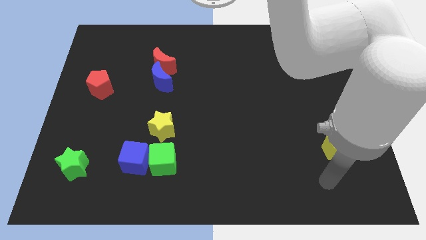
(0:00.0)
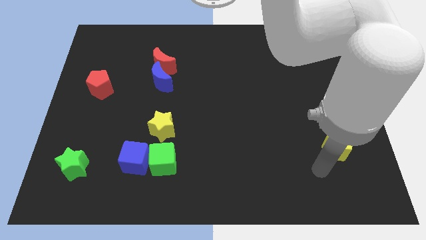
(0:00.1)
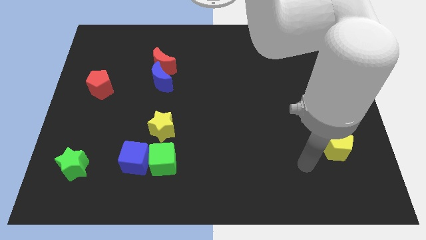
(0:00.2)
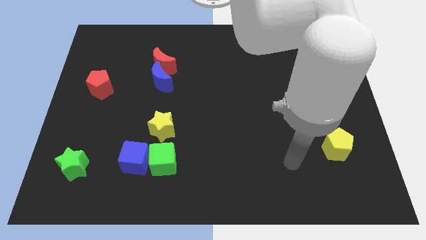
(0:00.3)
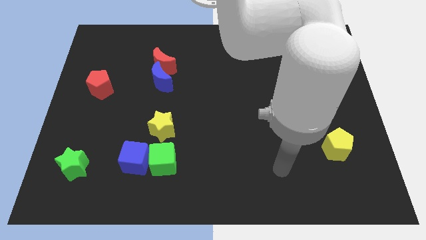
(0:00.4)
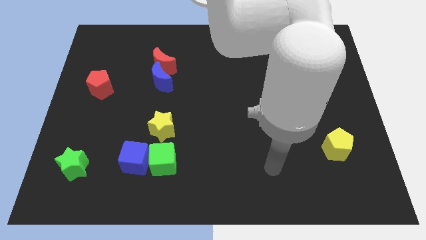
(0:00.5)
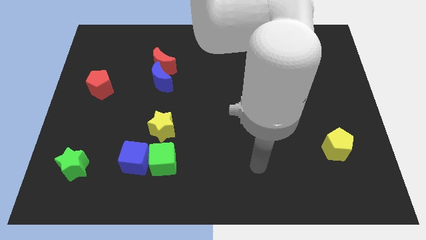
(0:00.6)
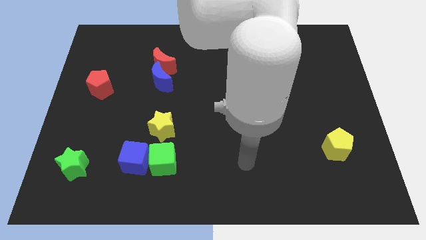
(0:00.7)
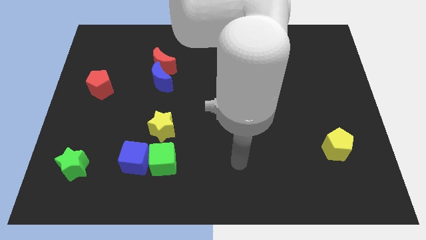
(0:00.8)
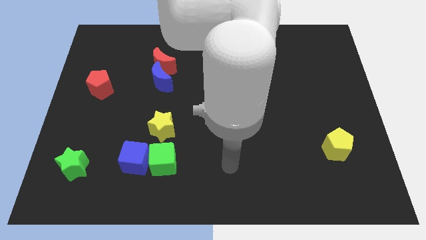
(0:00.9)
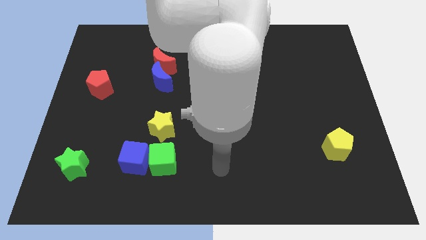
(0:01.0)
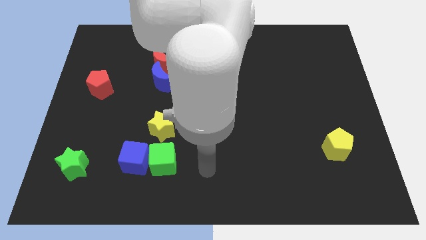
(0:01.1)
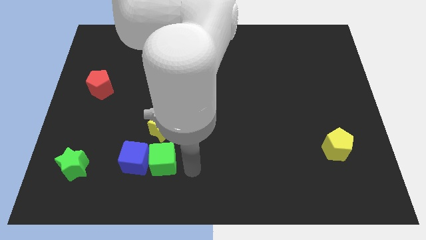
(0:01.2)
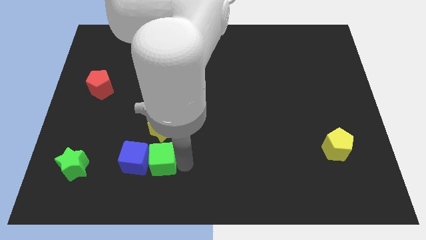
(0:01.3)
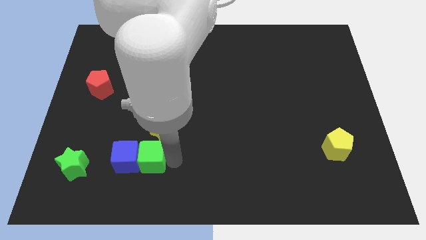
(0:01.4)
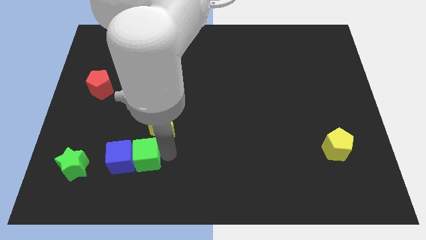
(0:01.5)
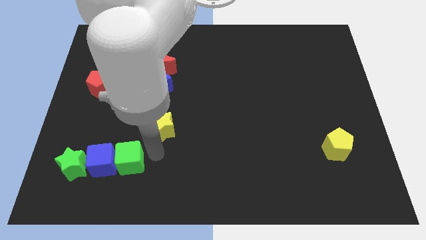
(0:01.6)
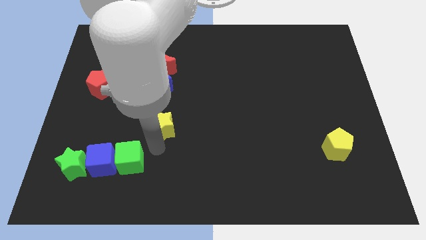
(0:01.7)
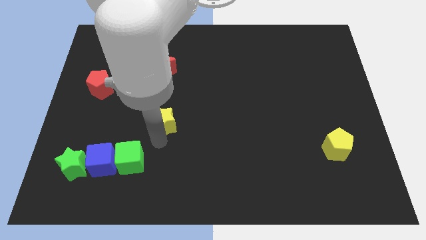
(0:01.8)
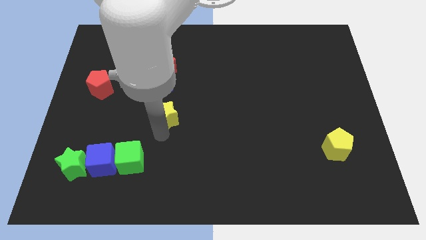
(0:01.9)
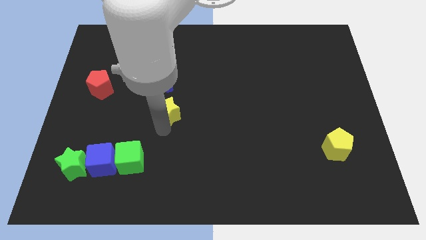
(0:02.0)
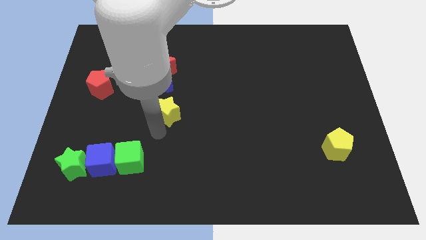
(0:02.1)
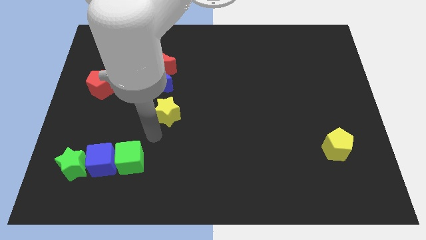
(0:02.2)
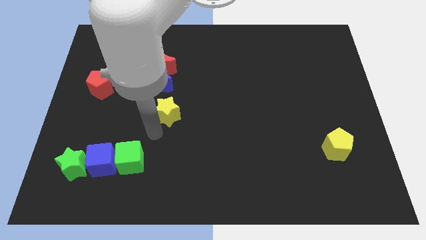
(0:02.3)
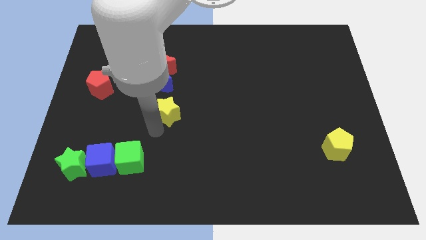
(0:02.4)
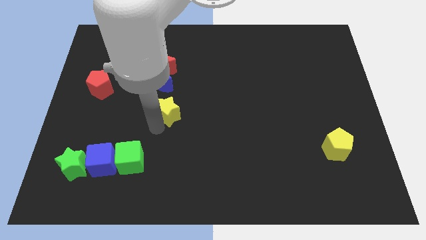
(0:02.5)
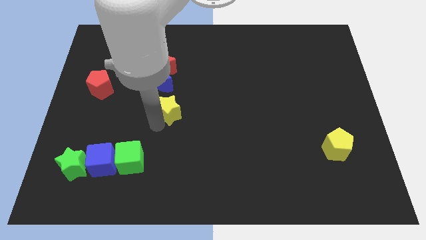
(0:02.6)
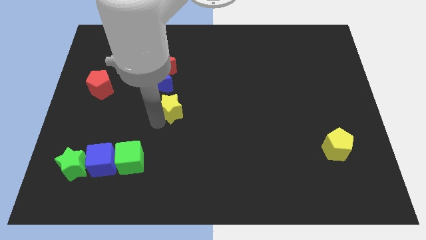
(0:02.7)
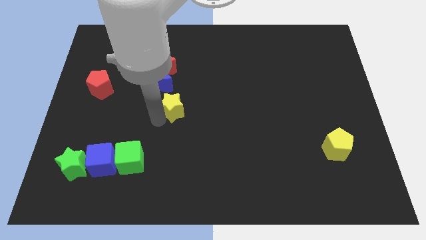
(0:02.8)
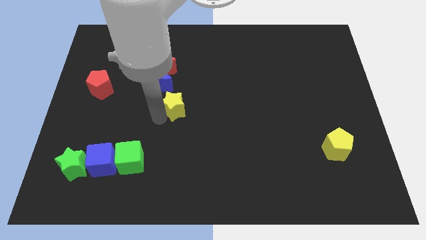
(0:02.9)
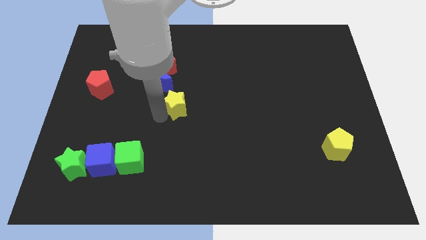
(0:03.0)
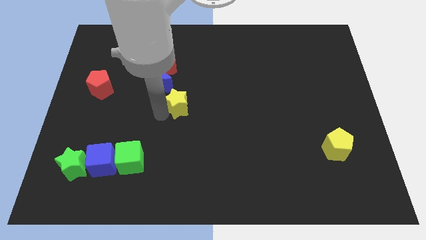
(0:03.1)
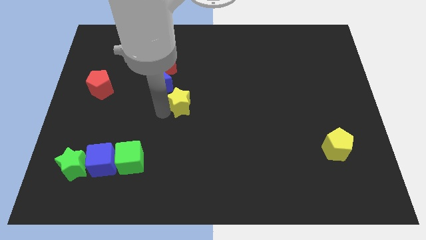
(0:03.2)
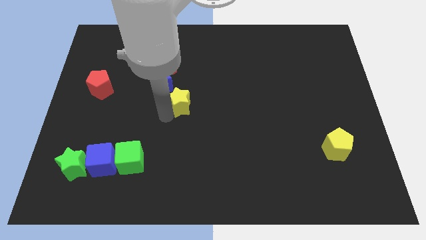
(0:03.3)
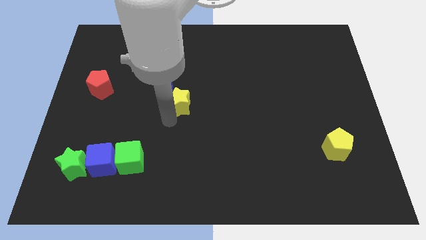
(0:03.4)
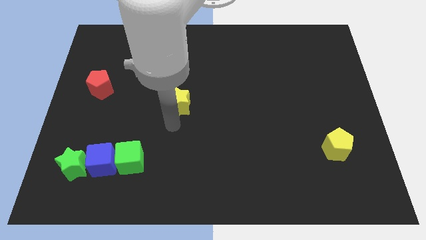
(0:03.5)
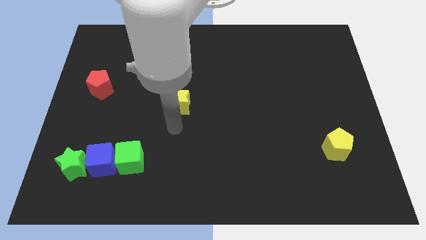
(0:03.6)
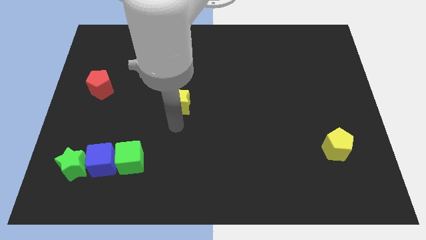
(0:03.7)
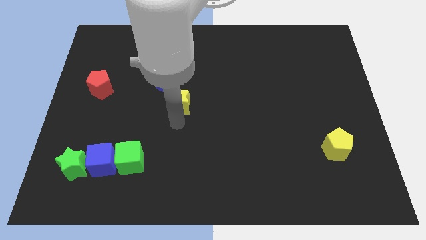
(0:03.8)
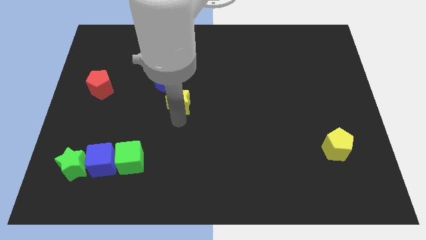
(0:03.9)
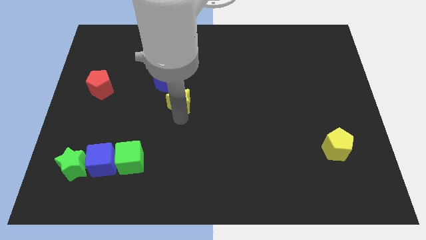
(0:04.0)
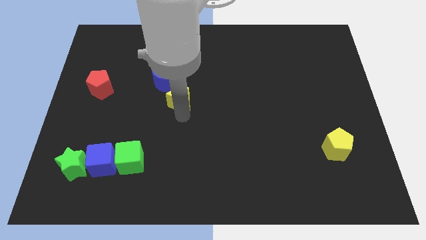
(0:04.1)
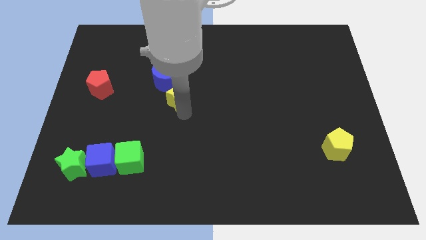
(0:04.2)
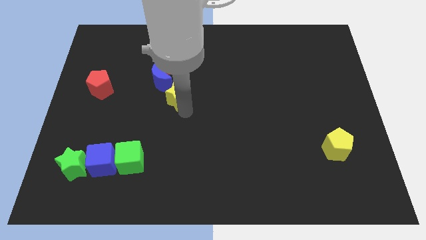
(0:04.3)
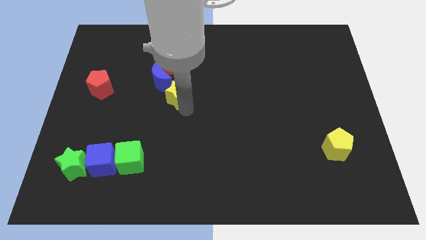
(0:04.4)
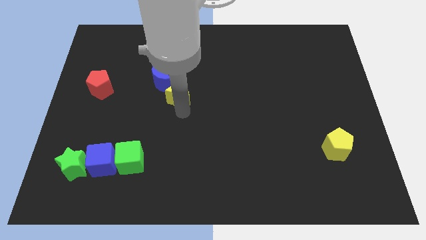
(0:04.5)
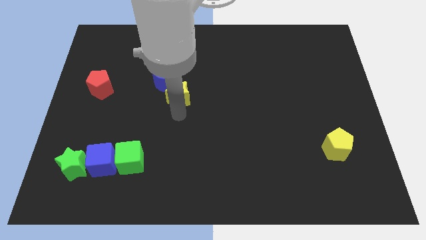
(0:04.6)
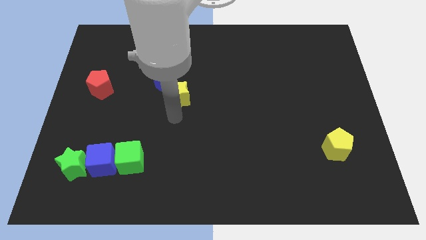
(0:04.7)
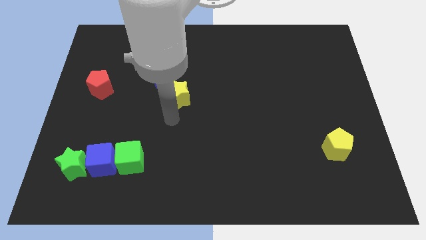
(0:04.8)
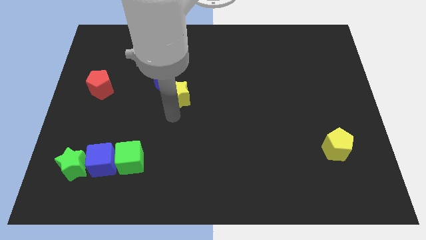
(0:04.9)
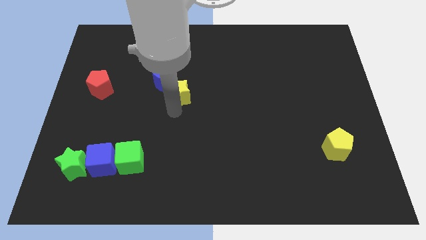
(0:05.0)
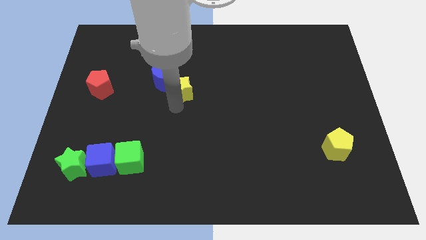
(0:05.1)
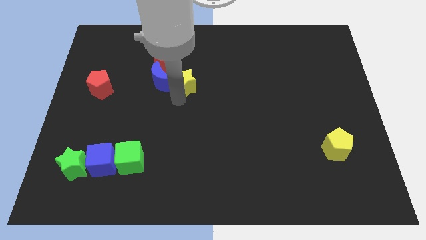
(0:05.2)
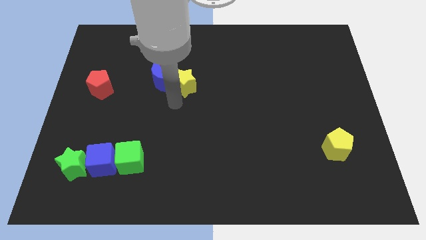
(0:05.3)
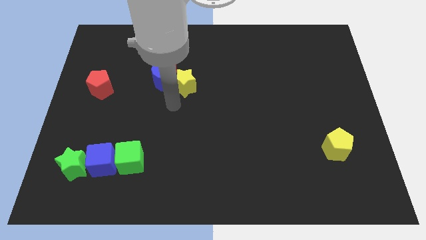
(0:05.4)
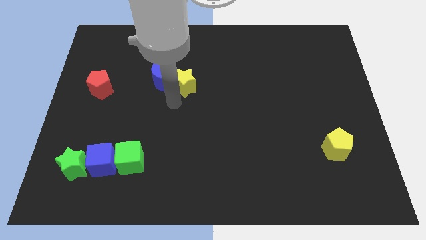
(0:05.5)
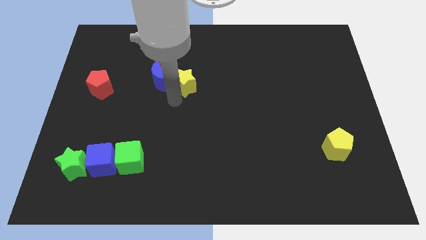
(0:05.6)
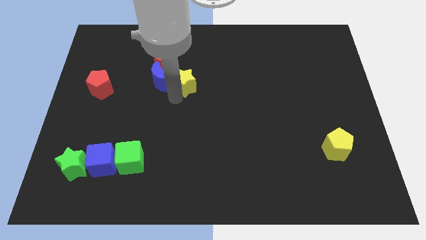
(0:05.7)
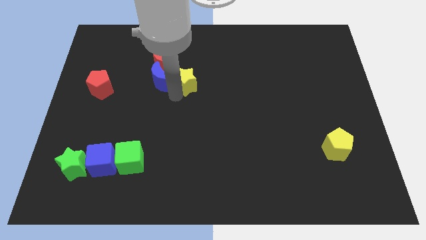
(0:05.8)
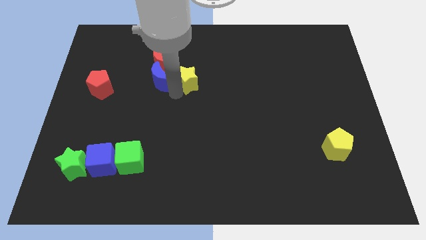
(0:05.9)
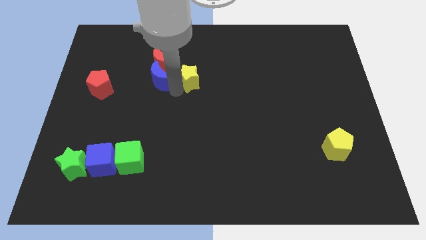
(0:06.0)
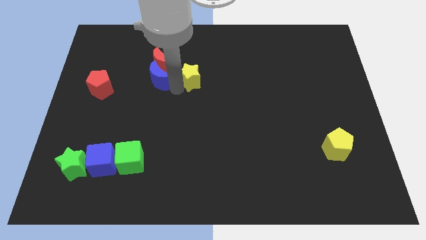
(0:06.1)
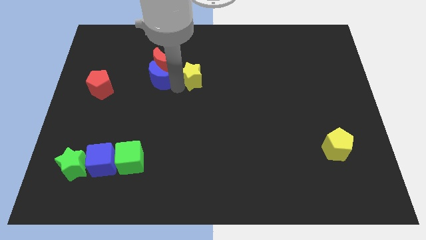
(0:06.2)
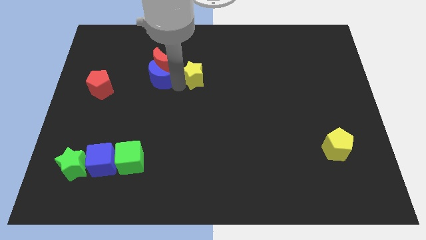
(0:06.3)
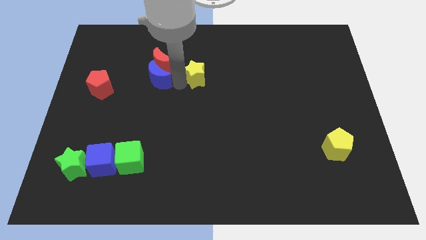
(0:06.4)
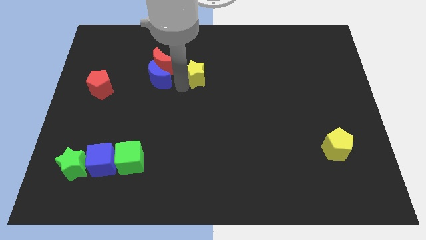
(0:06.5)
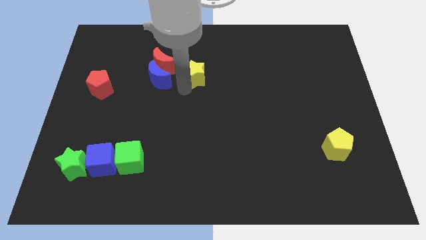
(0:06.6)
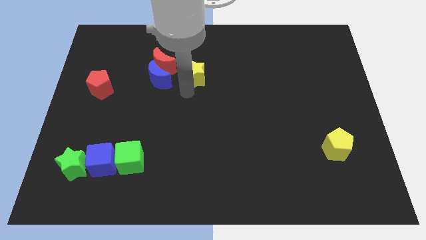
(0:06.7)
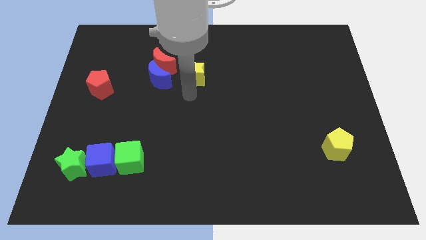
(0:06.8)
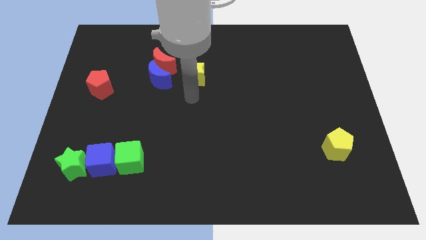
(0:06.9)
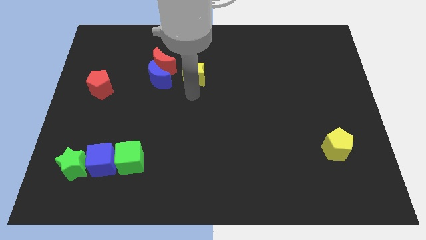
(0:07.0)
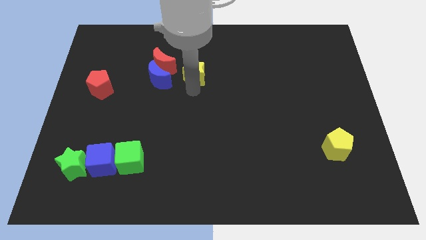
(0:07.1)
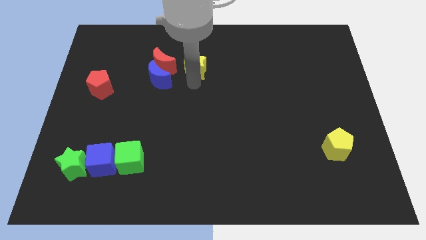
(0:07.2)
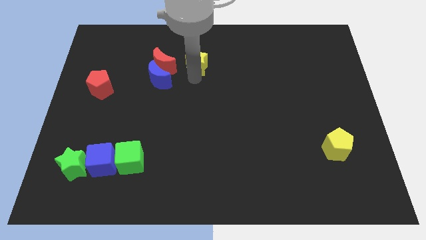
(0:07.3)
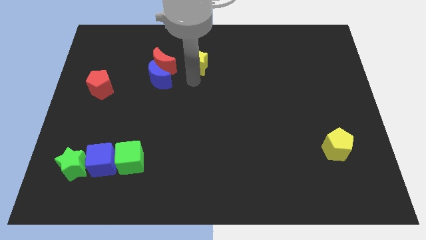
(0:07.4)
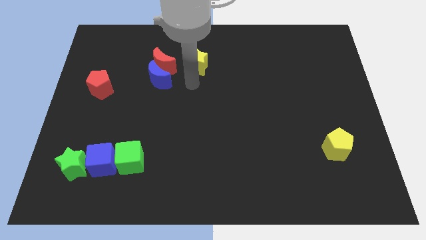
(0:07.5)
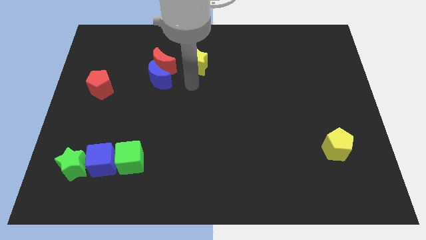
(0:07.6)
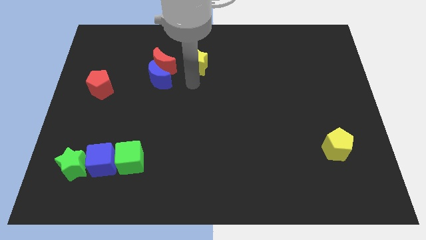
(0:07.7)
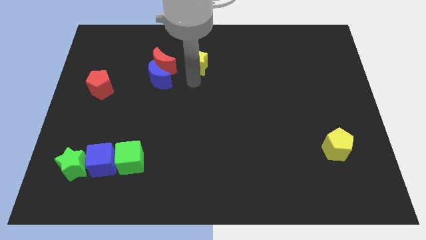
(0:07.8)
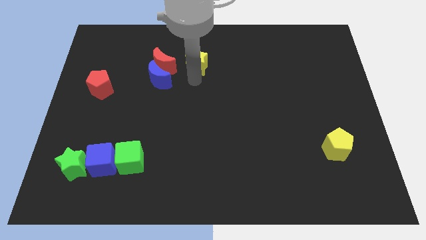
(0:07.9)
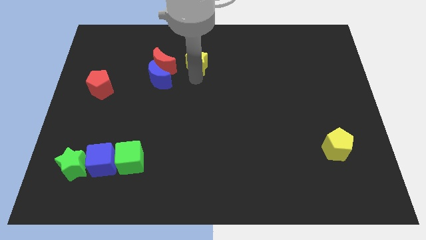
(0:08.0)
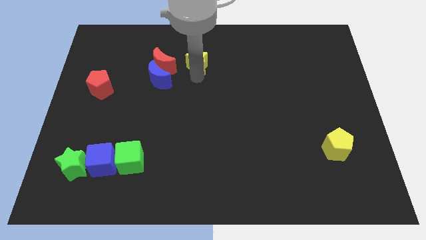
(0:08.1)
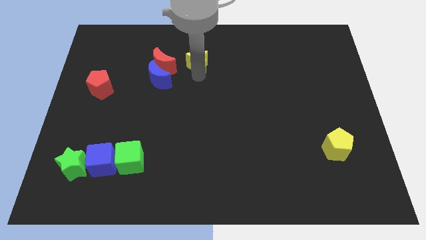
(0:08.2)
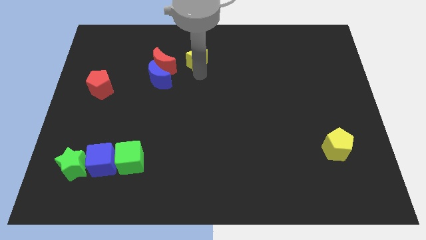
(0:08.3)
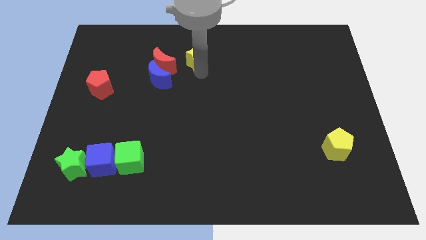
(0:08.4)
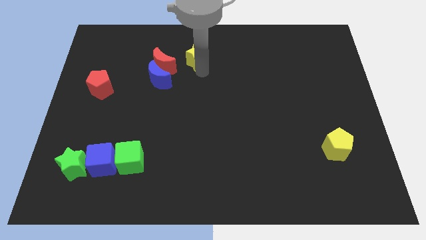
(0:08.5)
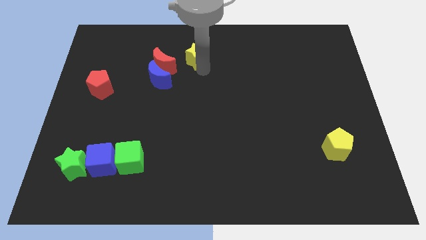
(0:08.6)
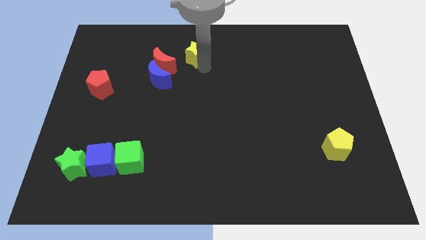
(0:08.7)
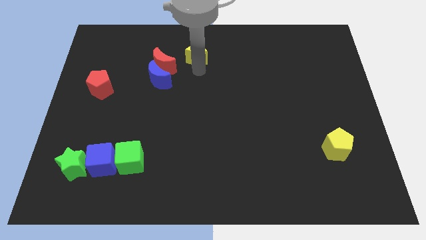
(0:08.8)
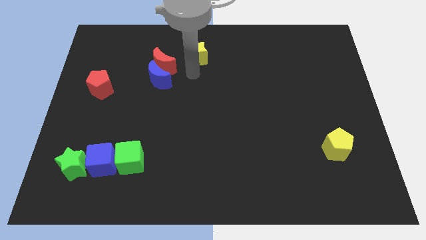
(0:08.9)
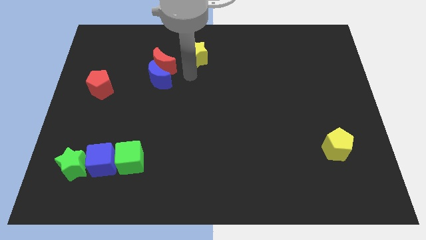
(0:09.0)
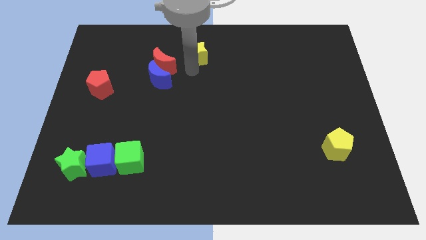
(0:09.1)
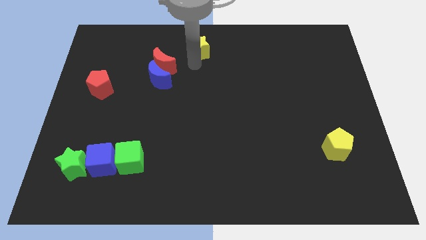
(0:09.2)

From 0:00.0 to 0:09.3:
move the yellow star to the towards your base
